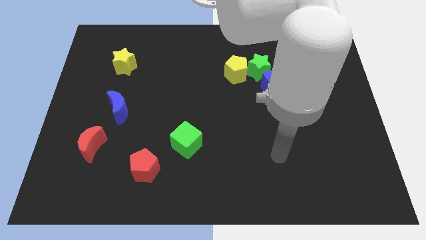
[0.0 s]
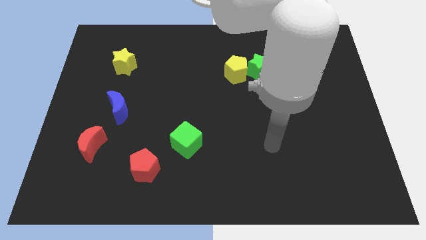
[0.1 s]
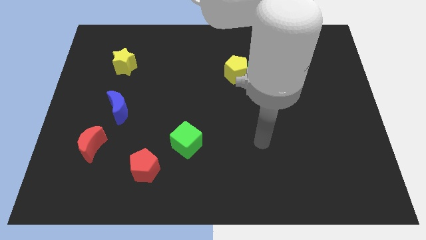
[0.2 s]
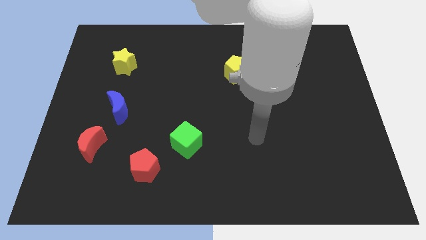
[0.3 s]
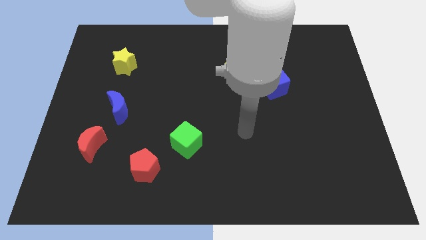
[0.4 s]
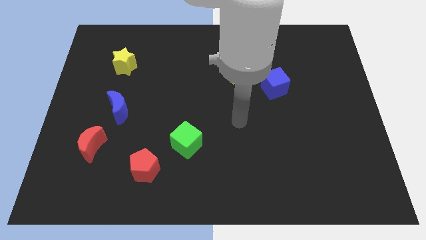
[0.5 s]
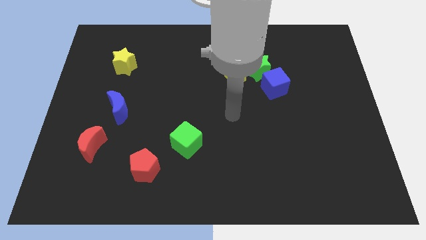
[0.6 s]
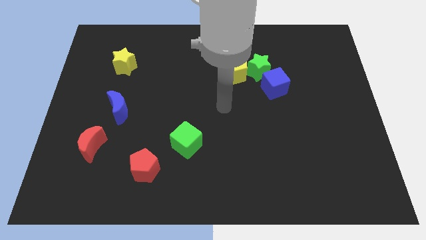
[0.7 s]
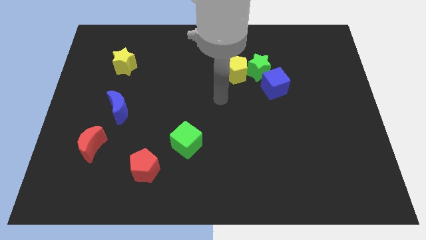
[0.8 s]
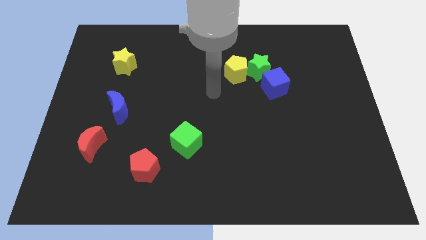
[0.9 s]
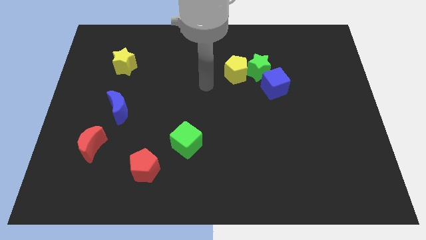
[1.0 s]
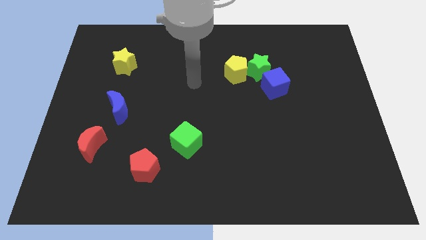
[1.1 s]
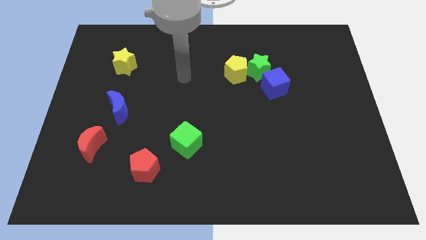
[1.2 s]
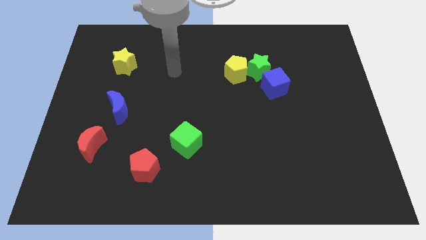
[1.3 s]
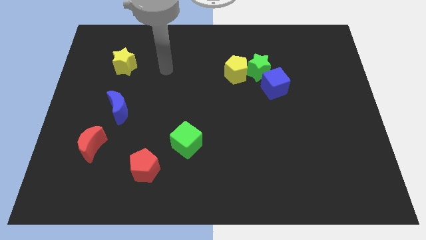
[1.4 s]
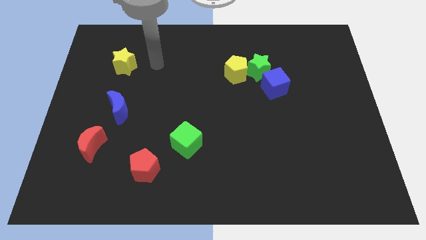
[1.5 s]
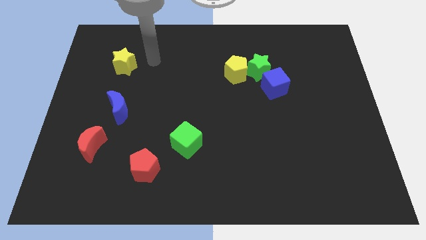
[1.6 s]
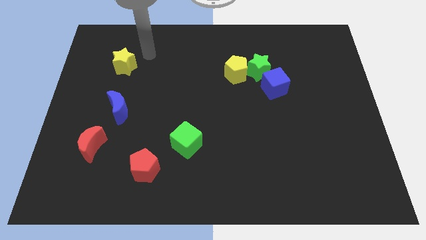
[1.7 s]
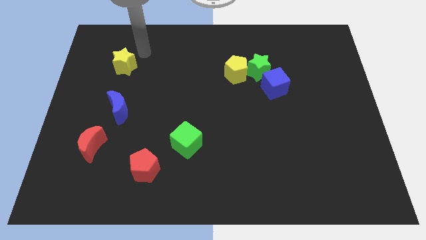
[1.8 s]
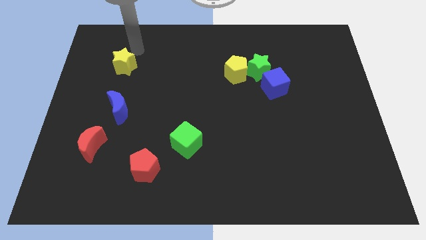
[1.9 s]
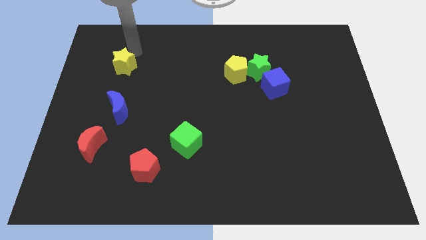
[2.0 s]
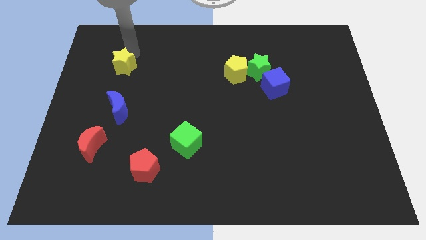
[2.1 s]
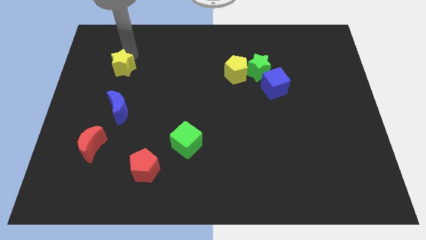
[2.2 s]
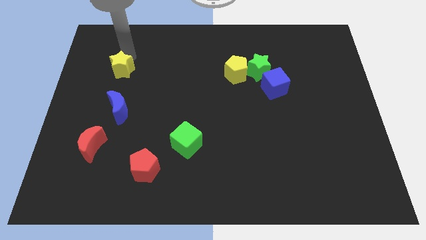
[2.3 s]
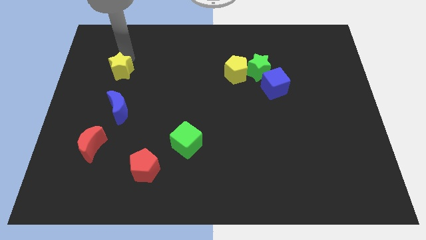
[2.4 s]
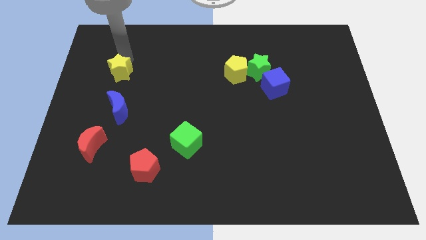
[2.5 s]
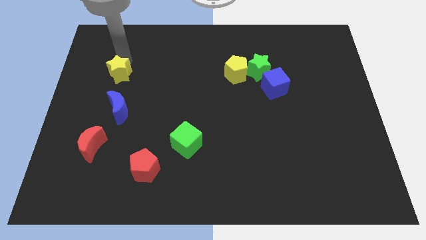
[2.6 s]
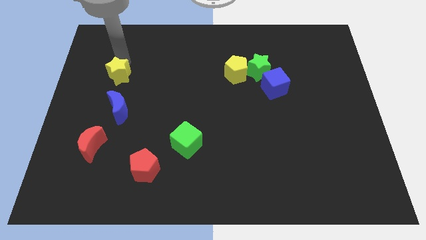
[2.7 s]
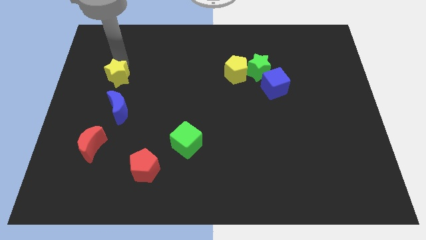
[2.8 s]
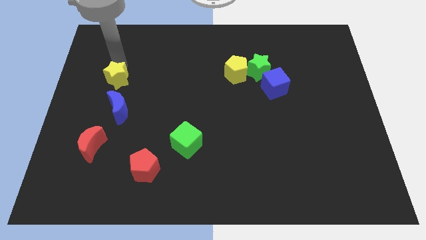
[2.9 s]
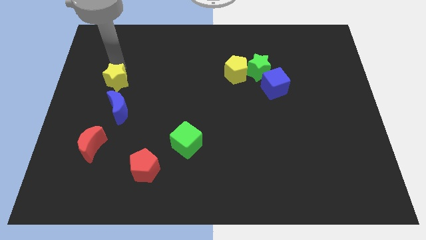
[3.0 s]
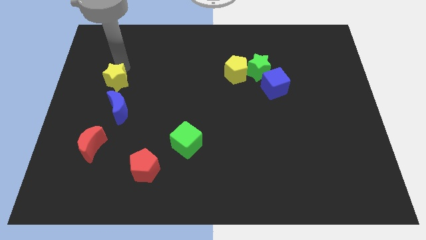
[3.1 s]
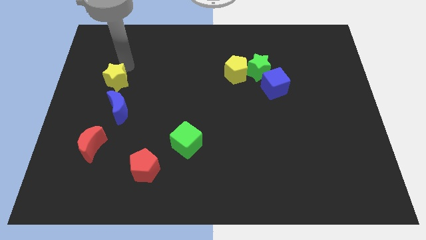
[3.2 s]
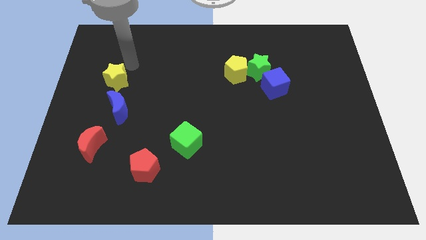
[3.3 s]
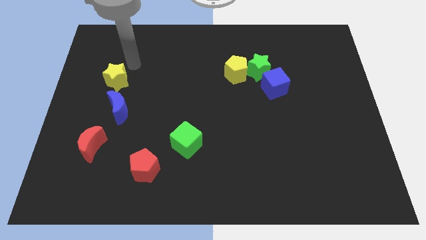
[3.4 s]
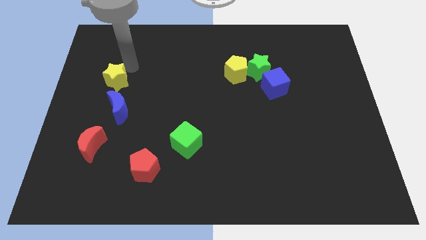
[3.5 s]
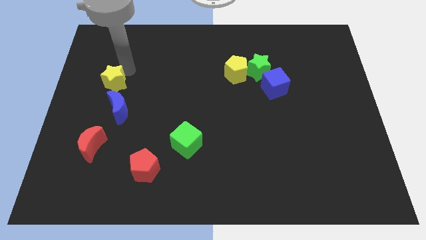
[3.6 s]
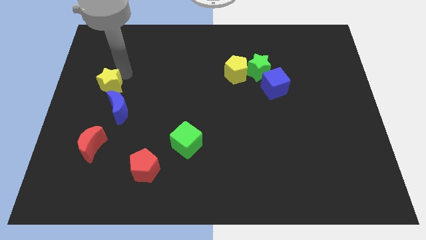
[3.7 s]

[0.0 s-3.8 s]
slightly move the yellow star down

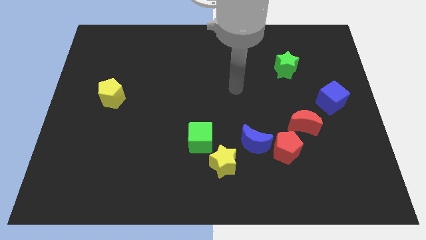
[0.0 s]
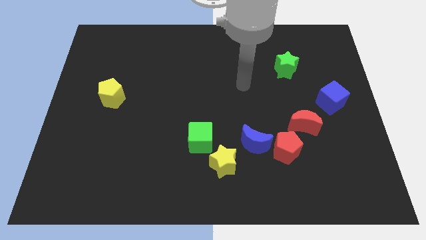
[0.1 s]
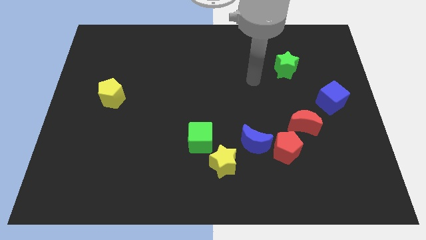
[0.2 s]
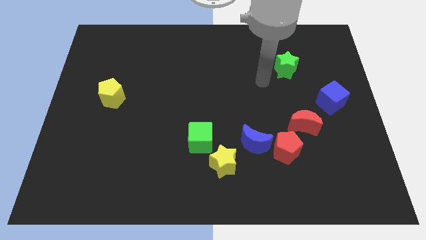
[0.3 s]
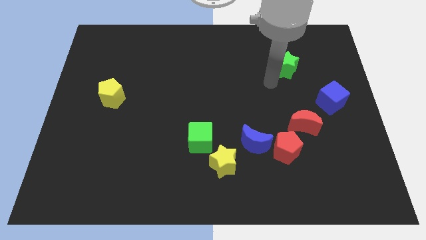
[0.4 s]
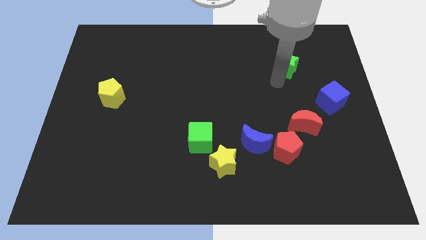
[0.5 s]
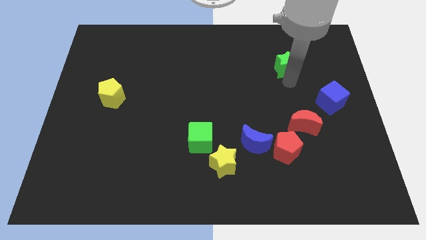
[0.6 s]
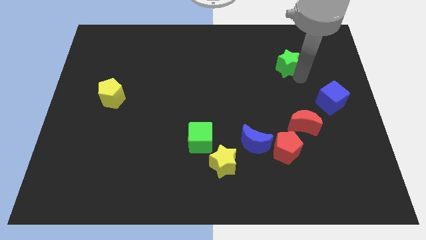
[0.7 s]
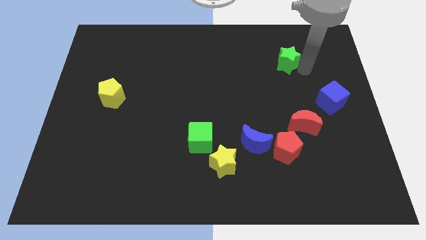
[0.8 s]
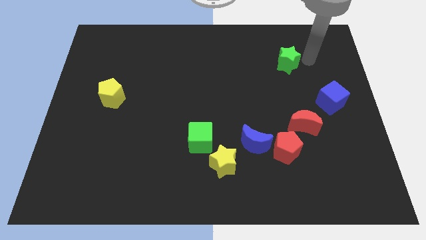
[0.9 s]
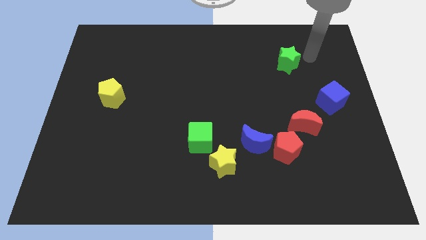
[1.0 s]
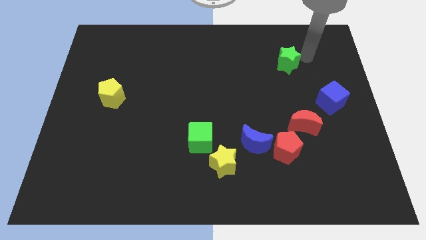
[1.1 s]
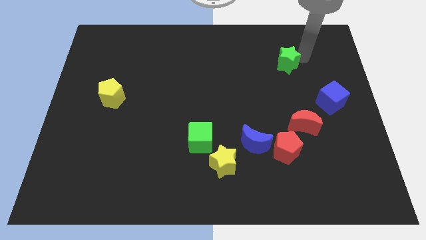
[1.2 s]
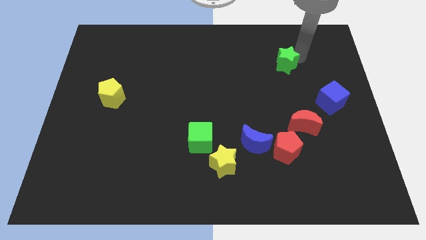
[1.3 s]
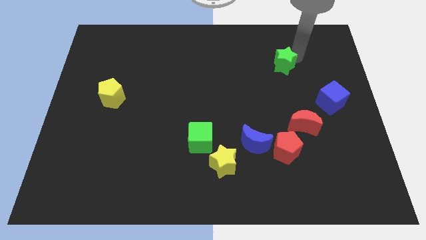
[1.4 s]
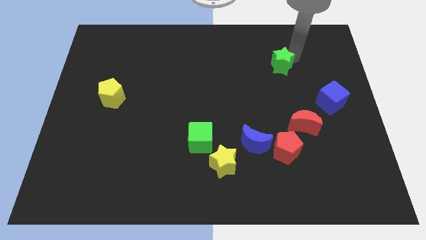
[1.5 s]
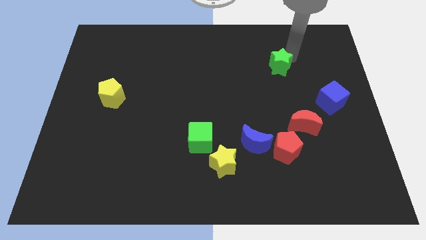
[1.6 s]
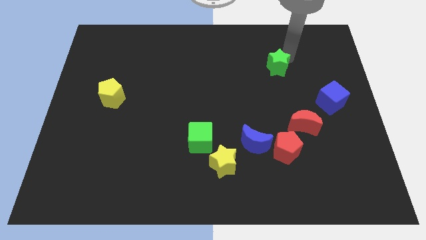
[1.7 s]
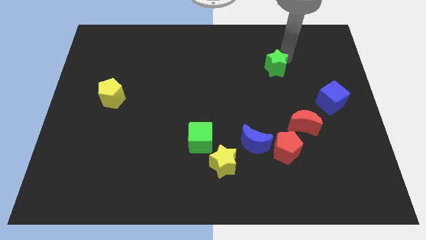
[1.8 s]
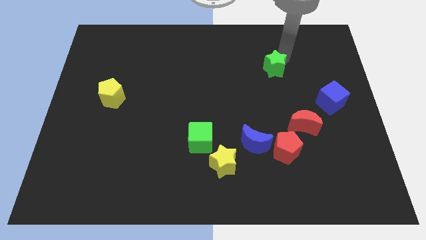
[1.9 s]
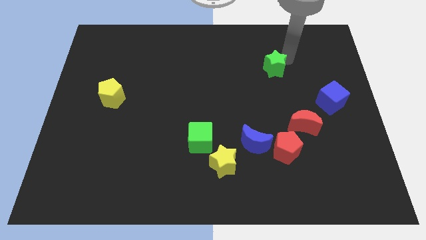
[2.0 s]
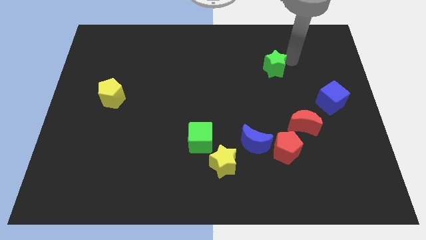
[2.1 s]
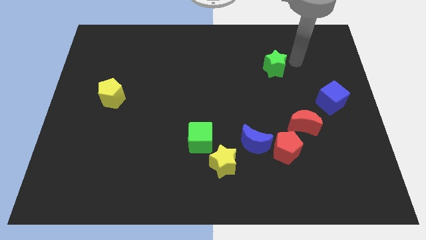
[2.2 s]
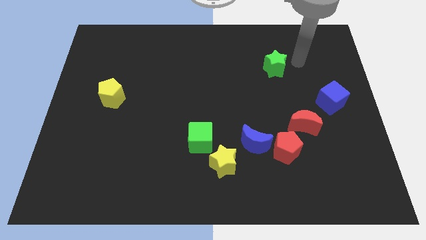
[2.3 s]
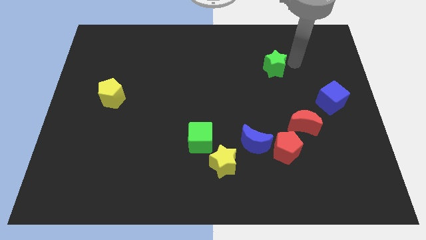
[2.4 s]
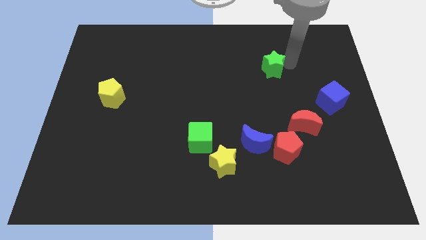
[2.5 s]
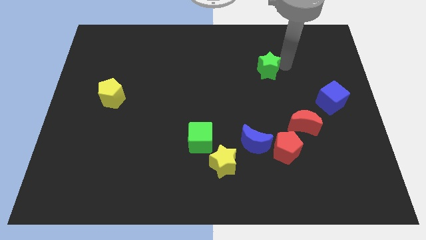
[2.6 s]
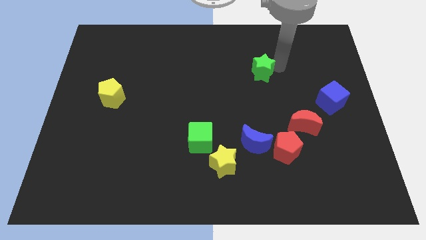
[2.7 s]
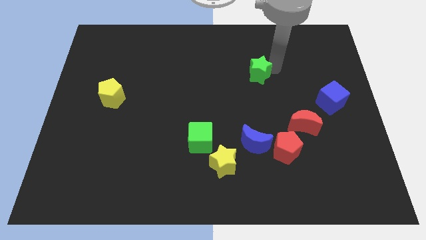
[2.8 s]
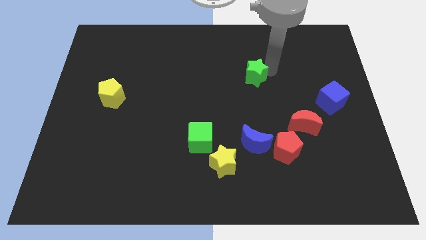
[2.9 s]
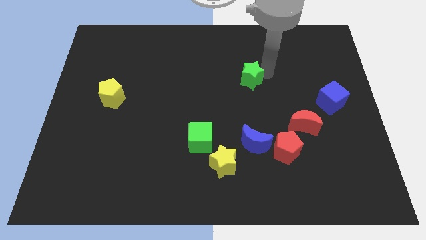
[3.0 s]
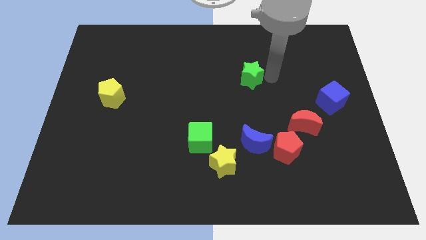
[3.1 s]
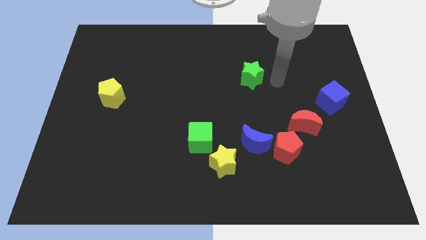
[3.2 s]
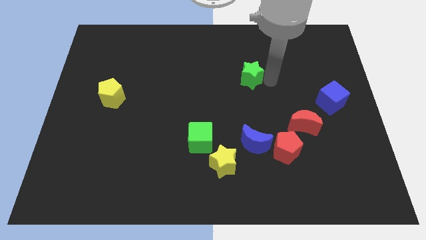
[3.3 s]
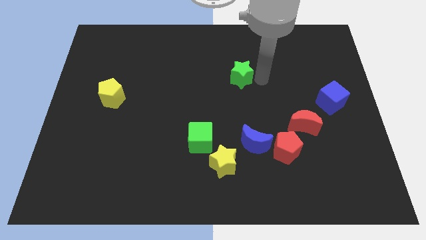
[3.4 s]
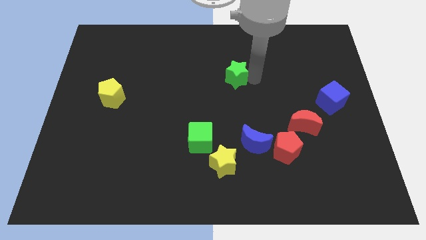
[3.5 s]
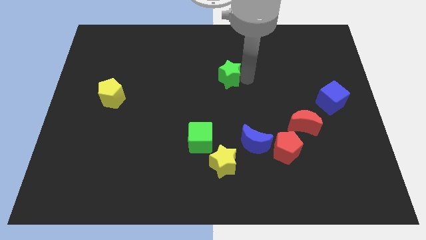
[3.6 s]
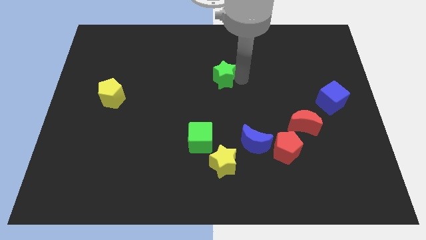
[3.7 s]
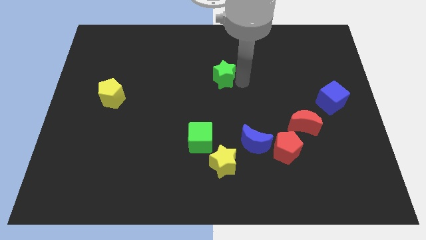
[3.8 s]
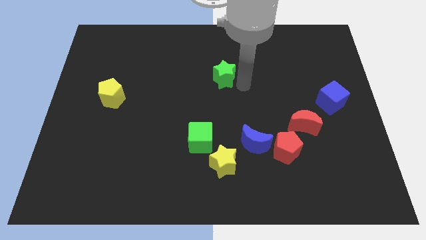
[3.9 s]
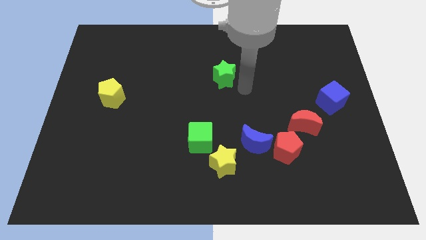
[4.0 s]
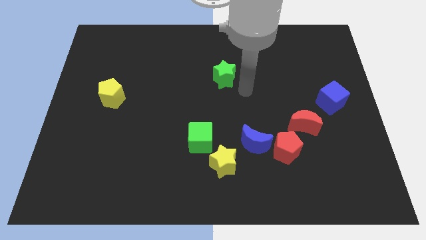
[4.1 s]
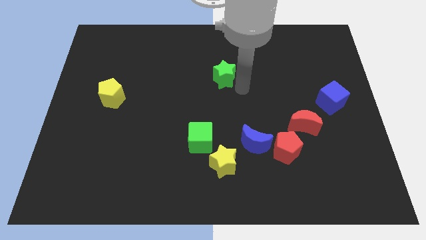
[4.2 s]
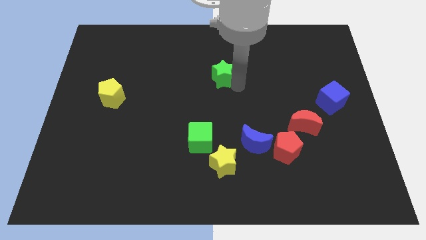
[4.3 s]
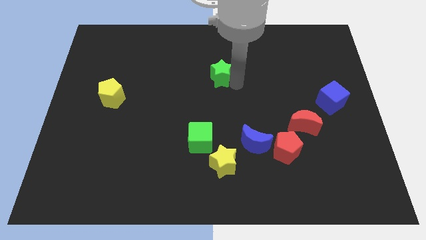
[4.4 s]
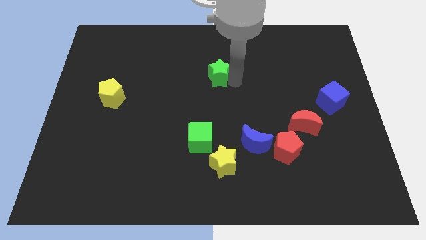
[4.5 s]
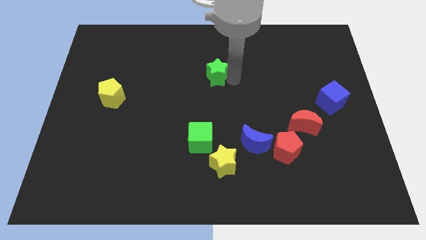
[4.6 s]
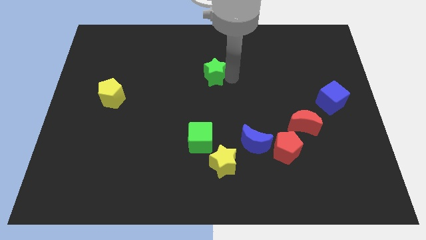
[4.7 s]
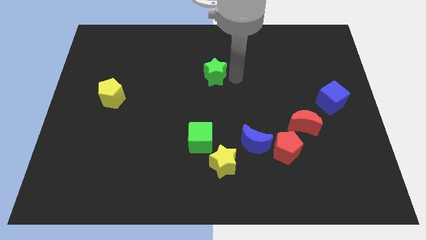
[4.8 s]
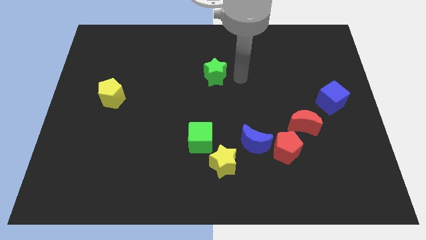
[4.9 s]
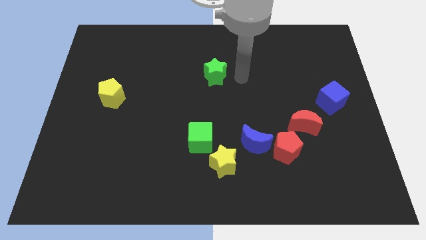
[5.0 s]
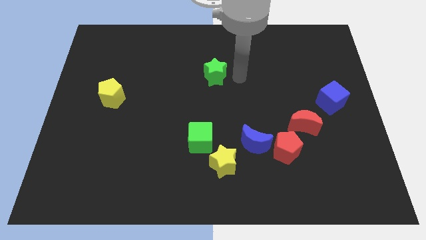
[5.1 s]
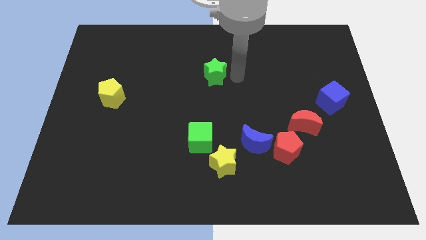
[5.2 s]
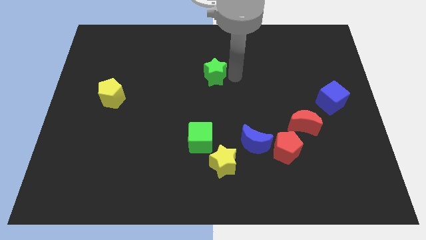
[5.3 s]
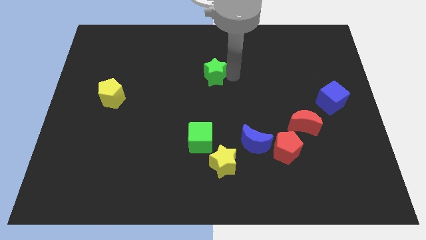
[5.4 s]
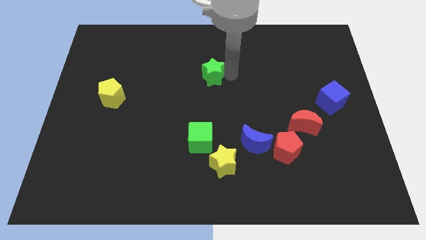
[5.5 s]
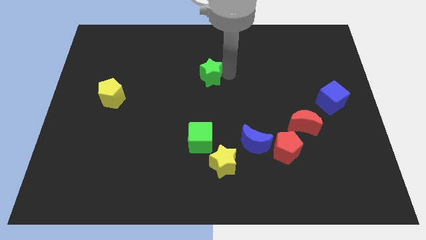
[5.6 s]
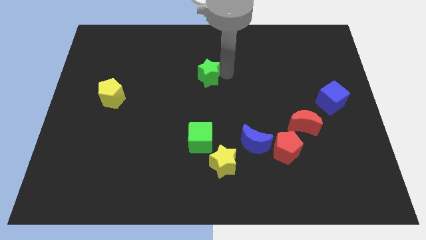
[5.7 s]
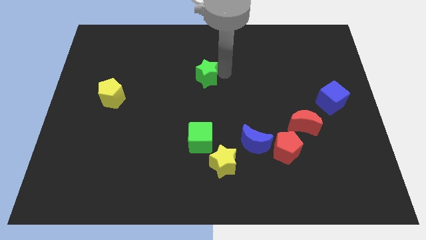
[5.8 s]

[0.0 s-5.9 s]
slide the green star to the left
